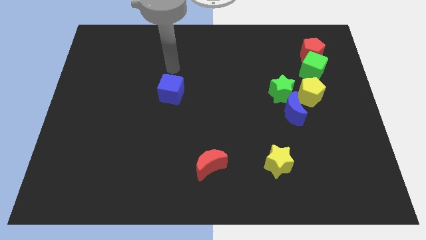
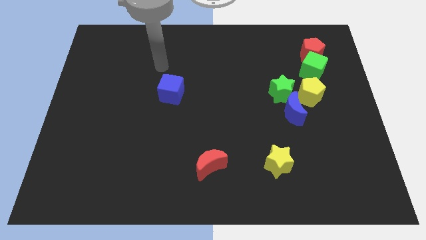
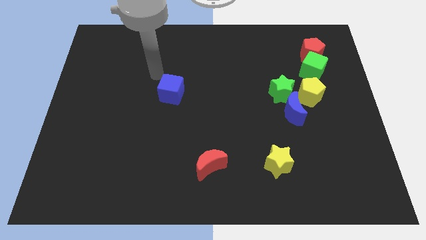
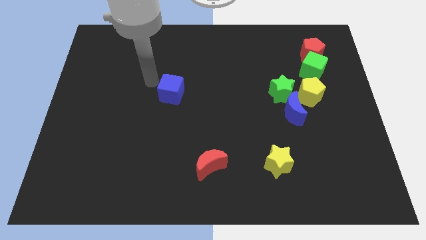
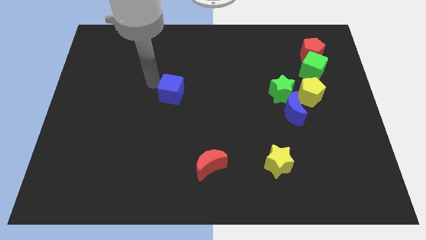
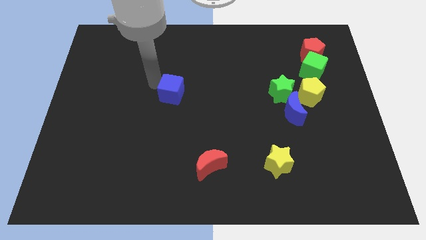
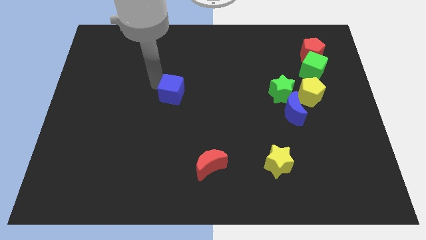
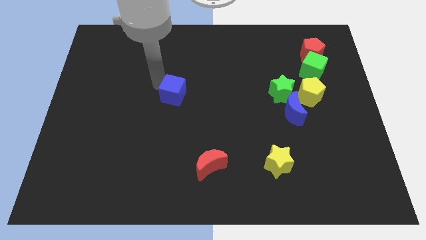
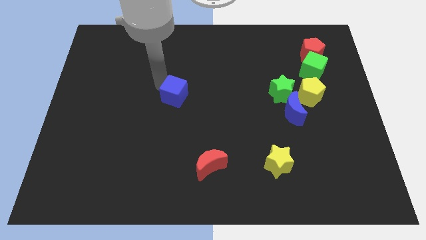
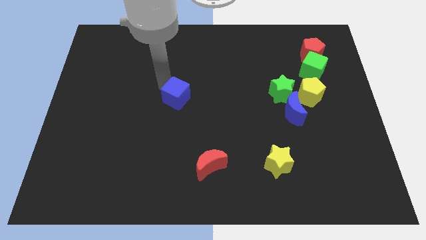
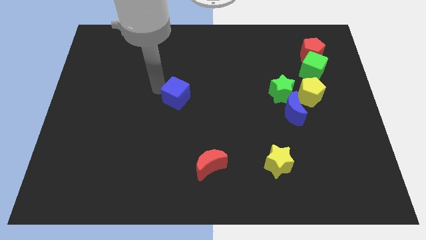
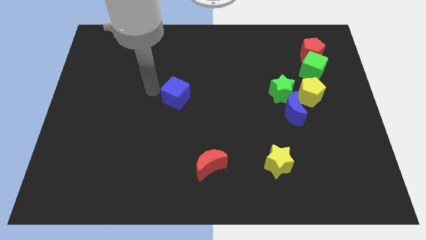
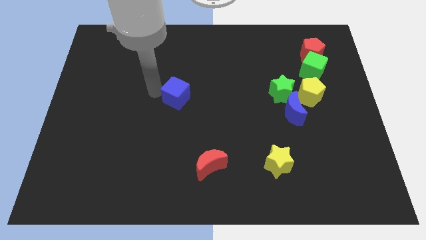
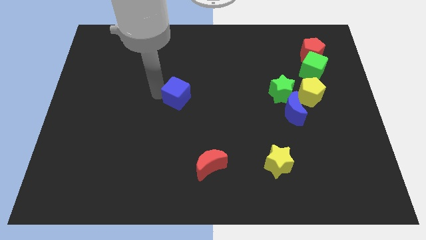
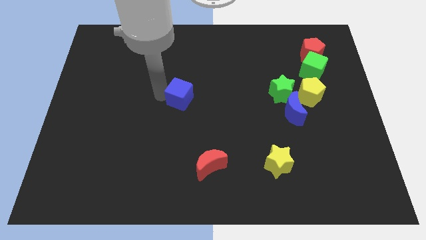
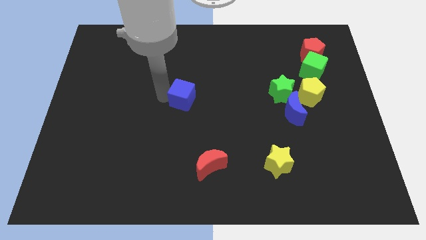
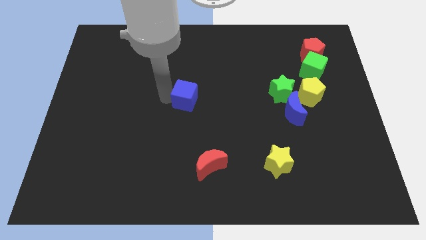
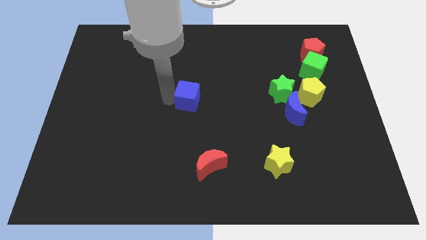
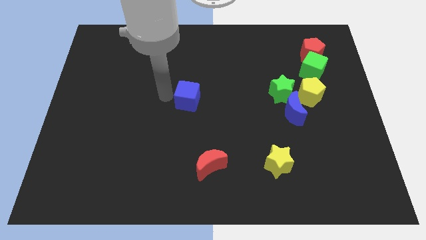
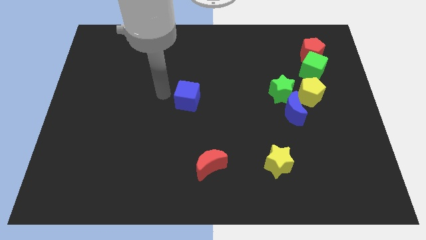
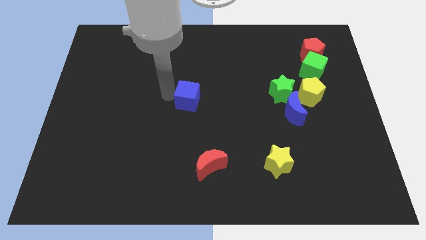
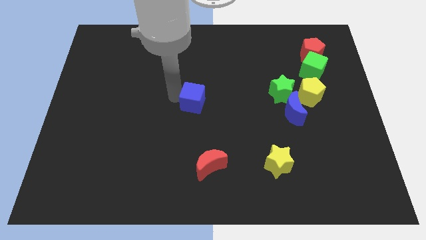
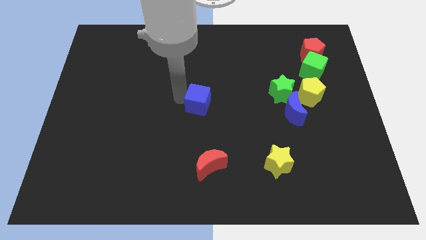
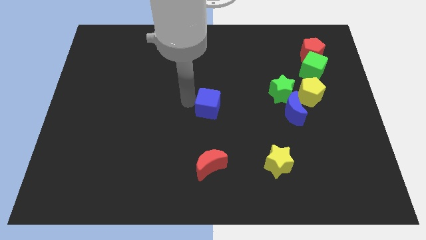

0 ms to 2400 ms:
slightly push the blue cube right

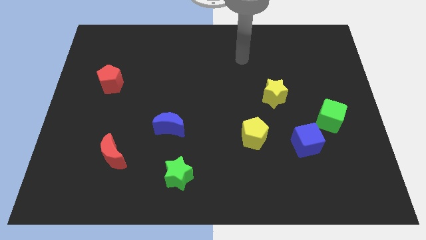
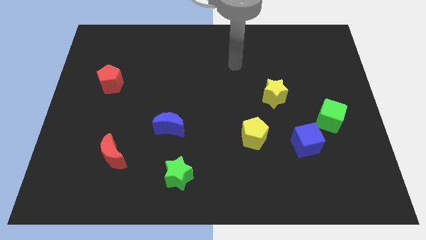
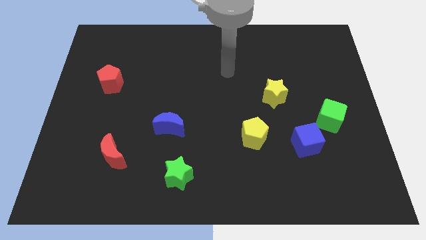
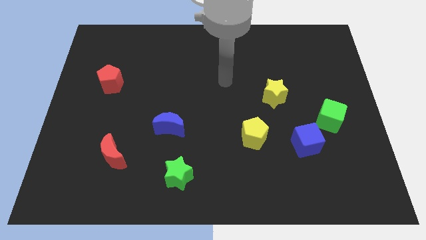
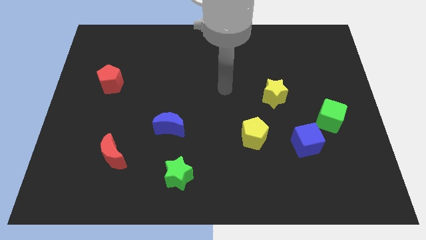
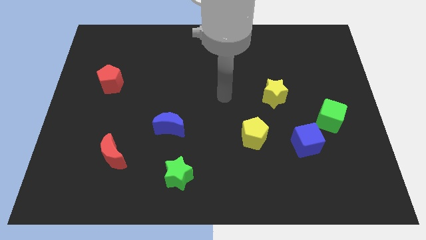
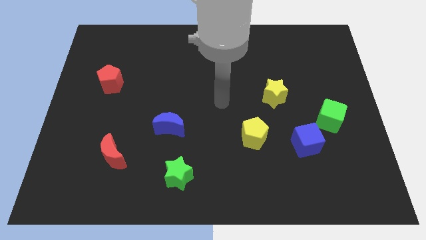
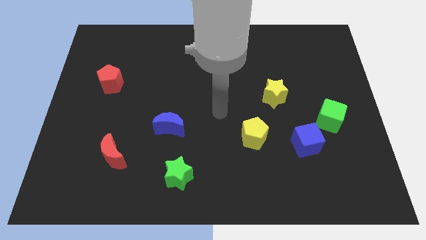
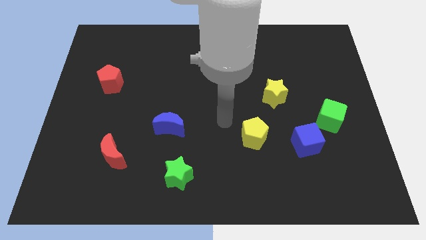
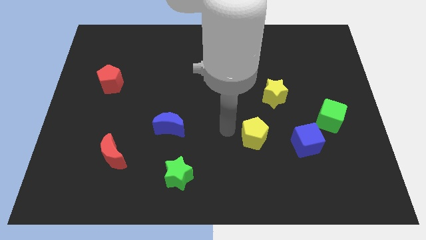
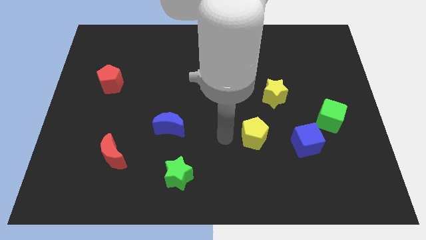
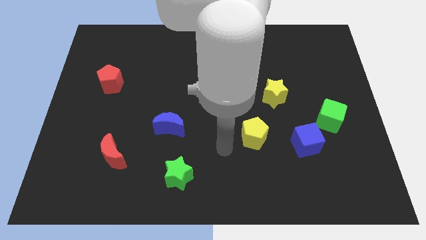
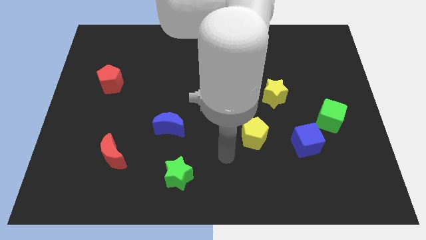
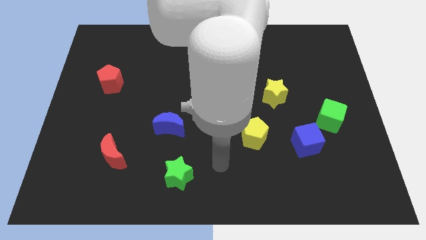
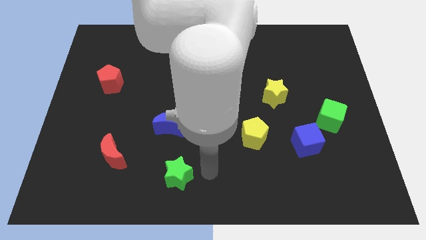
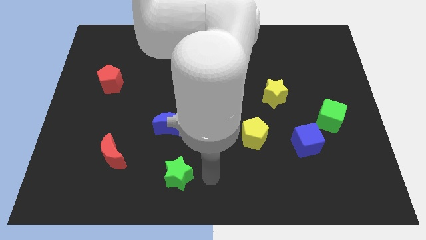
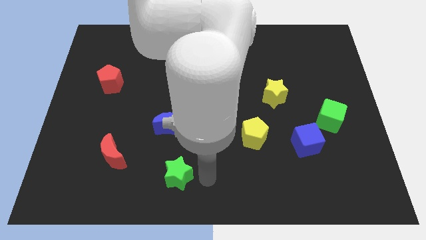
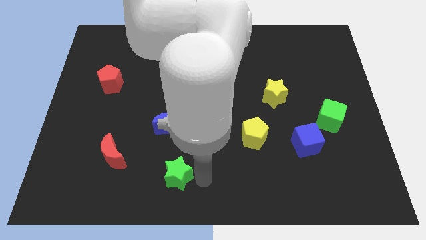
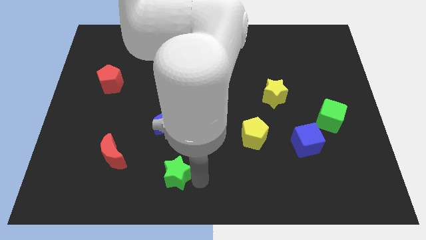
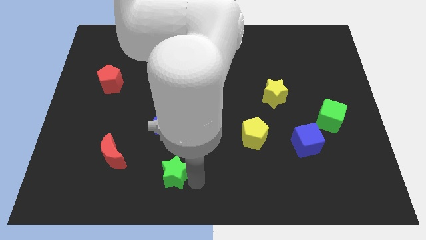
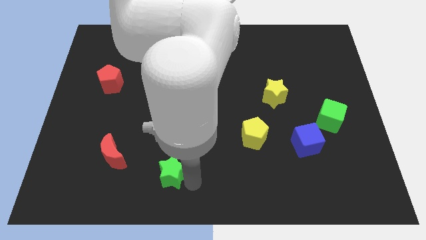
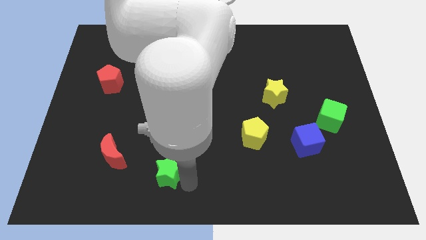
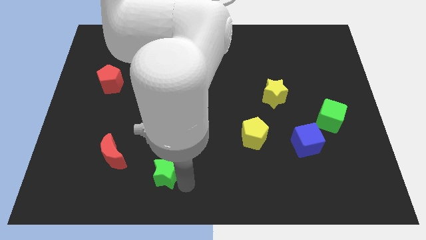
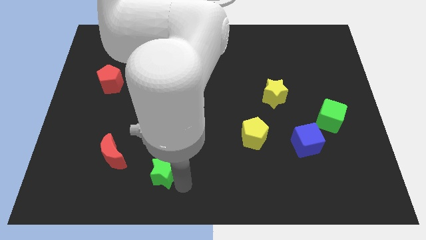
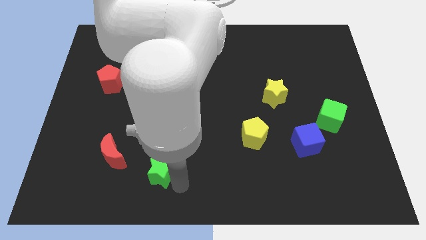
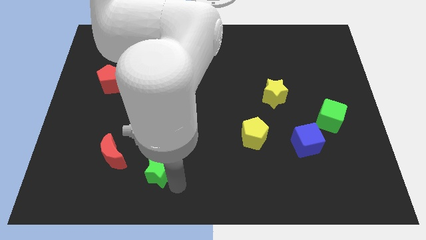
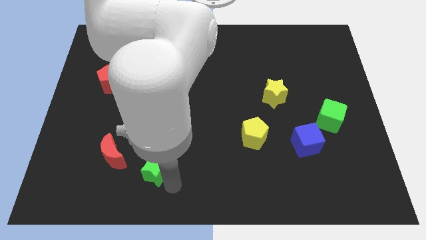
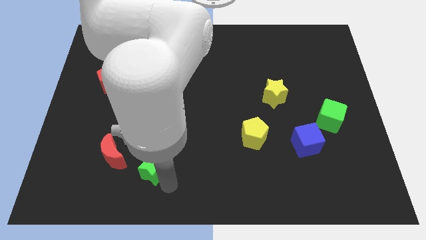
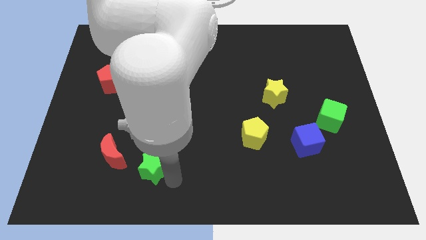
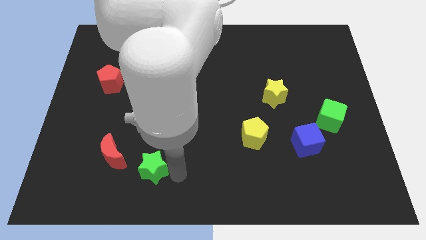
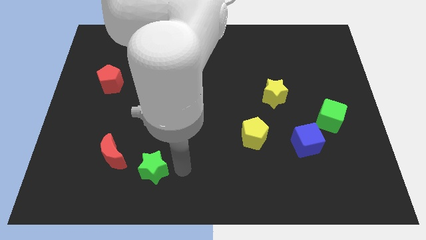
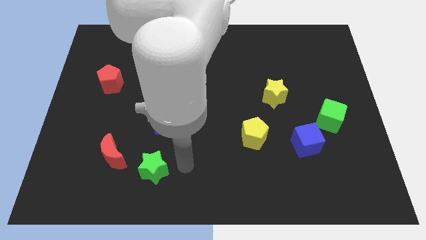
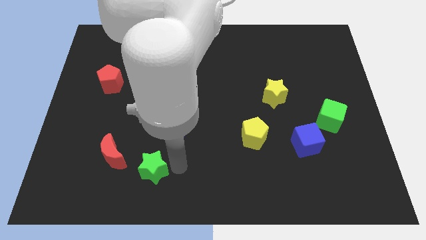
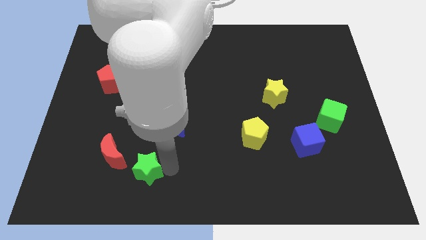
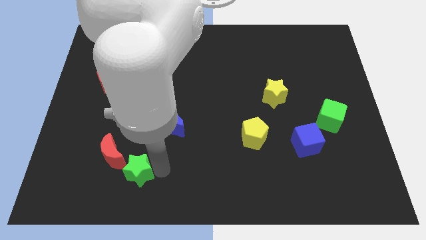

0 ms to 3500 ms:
slide the green star to the left a little

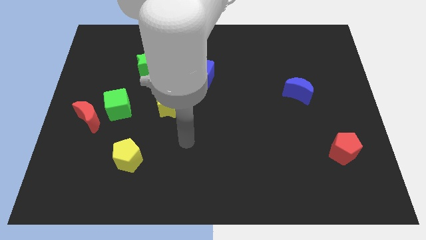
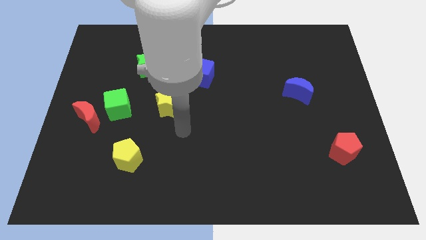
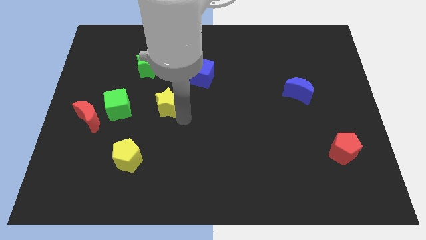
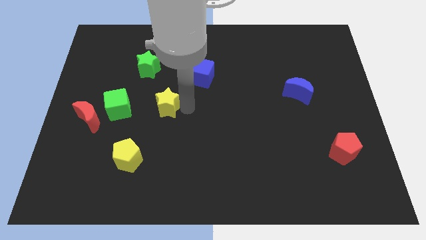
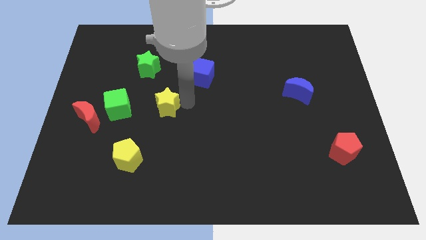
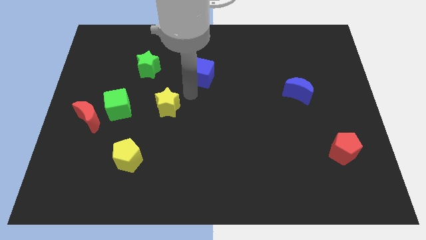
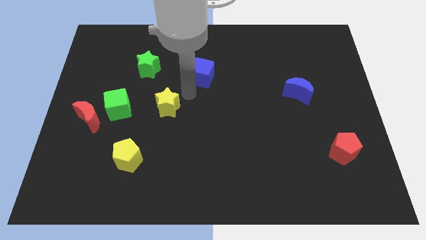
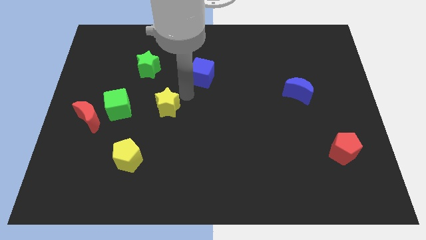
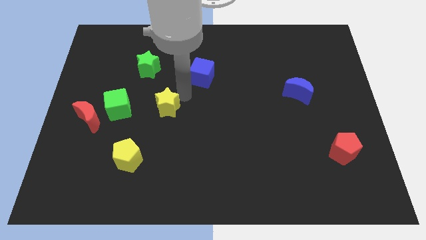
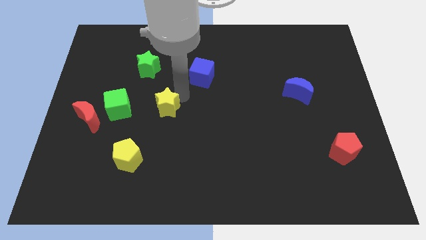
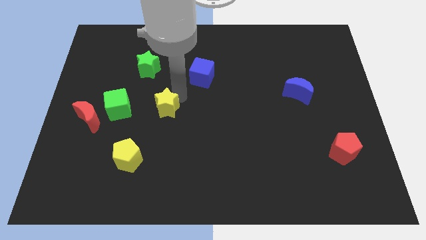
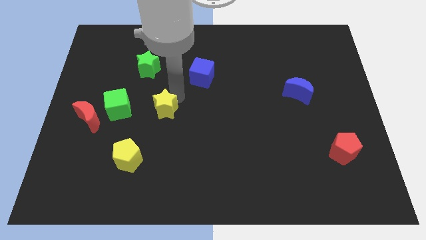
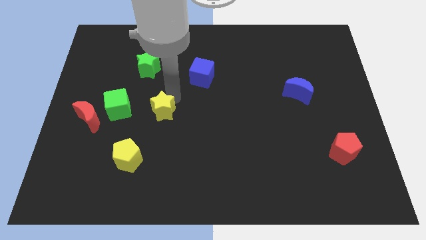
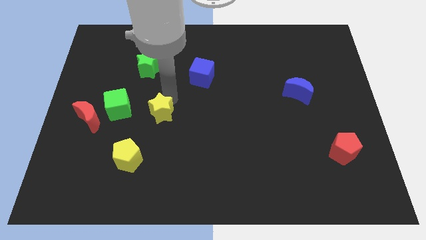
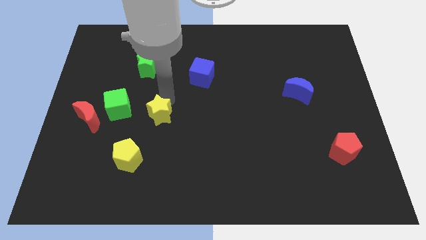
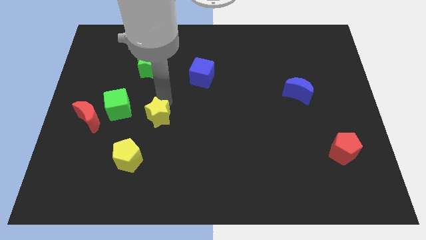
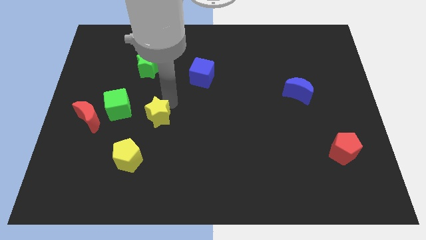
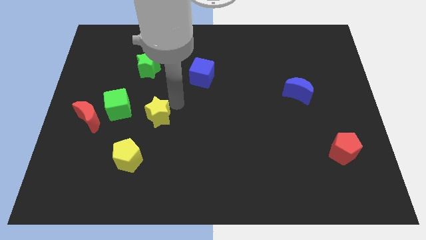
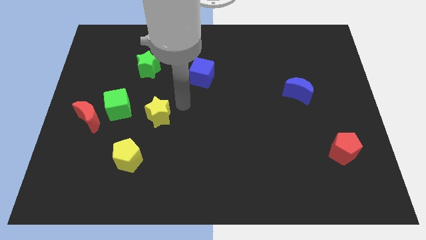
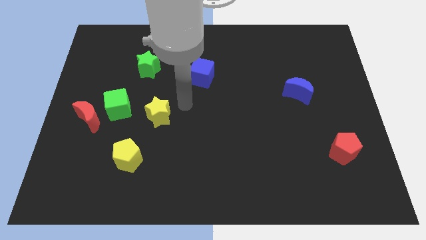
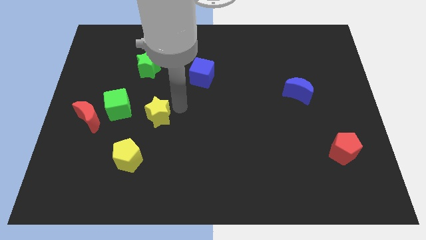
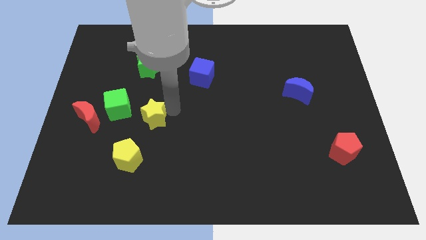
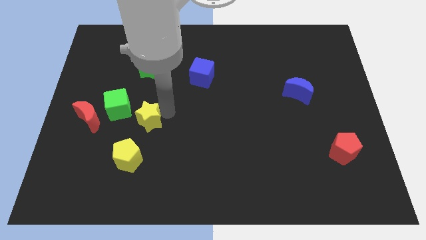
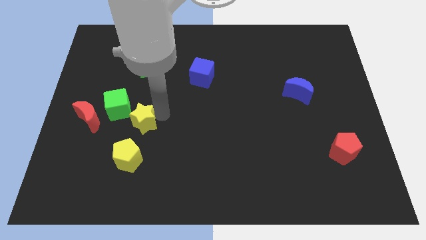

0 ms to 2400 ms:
slightly slide the yellow star downwards and left diagonally
